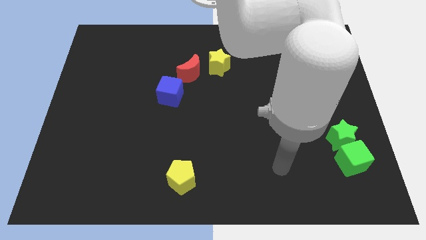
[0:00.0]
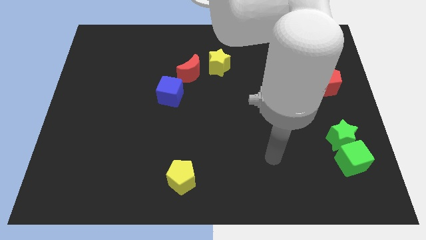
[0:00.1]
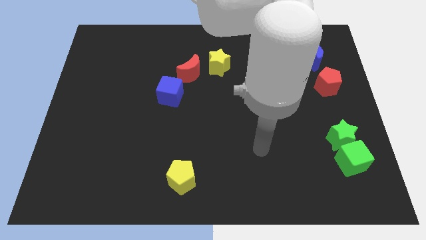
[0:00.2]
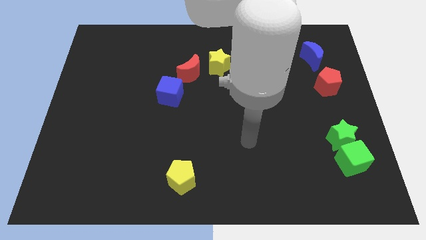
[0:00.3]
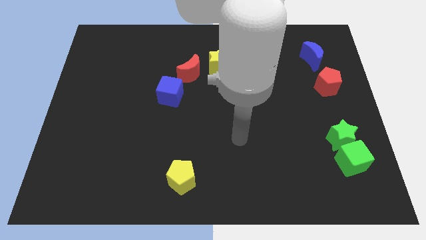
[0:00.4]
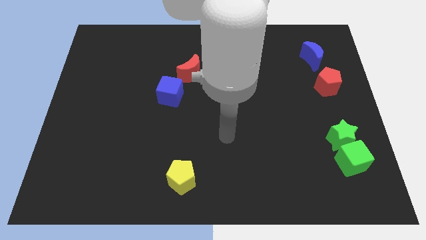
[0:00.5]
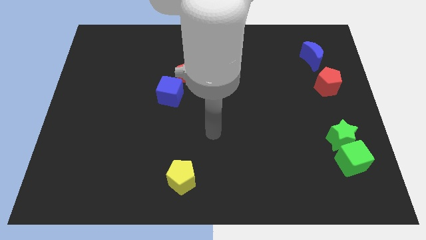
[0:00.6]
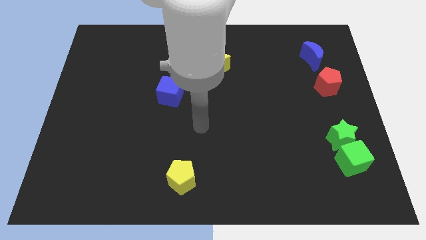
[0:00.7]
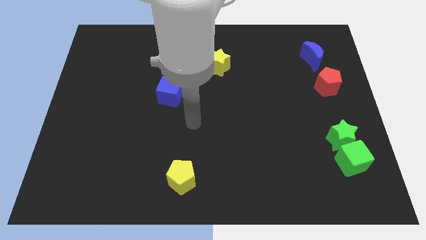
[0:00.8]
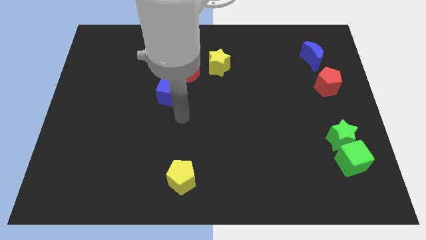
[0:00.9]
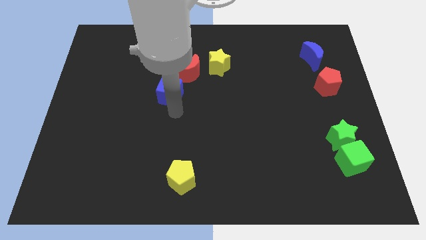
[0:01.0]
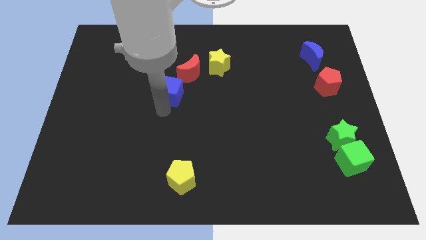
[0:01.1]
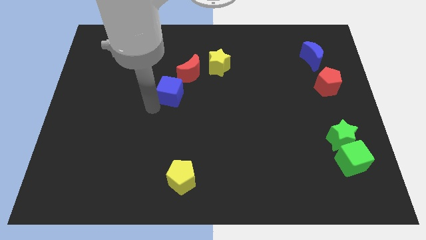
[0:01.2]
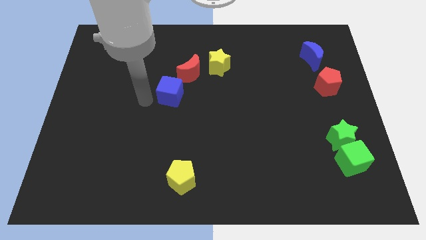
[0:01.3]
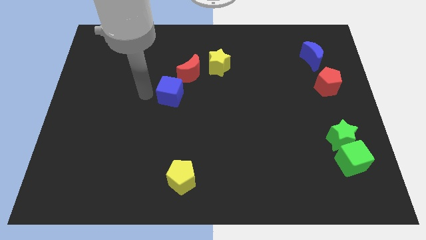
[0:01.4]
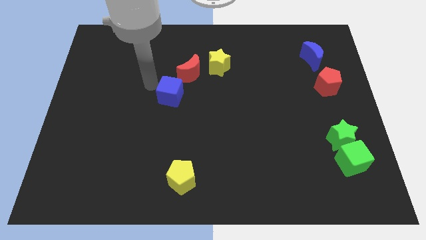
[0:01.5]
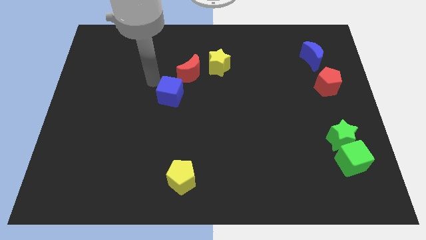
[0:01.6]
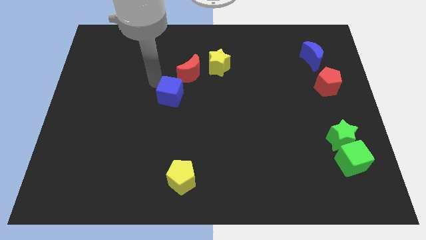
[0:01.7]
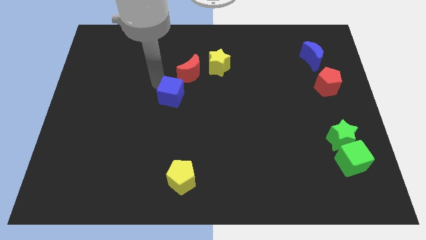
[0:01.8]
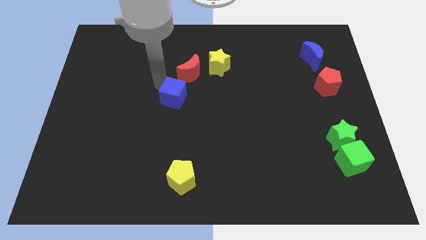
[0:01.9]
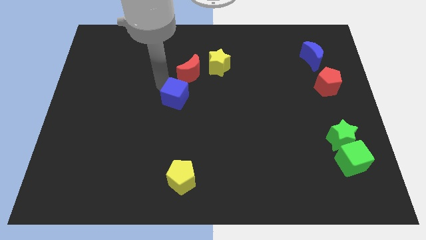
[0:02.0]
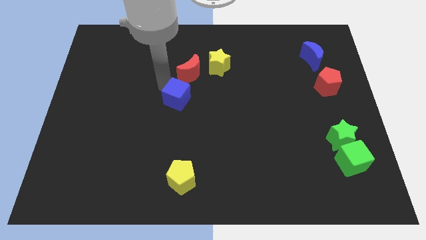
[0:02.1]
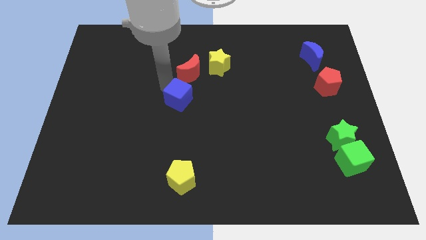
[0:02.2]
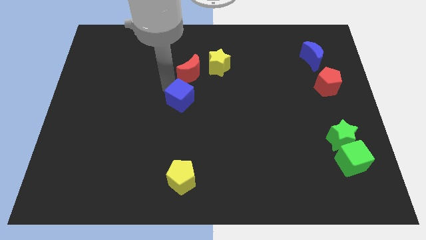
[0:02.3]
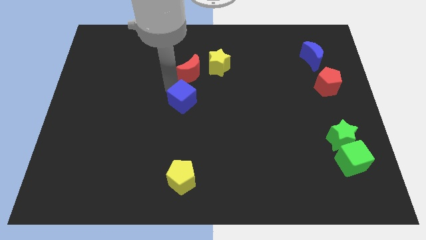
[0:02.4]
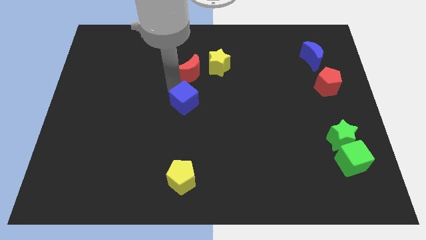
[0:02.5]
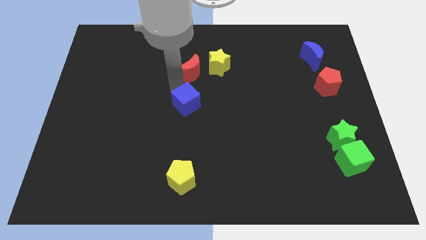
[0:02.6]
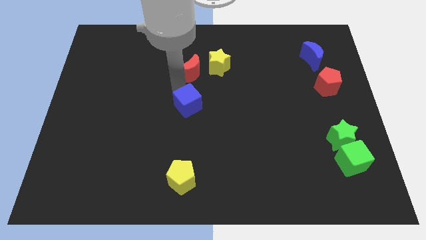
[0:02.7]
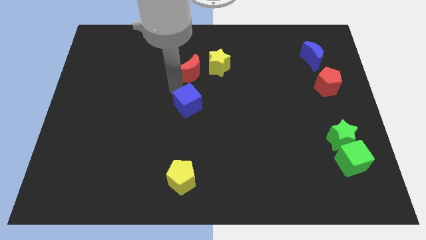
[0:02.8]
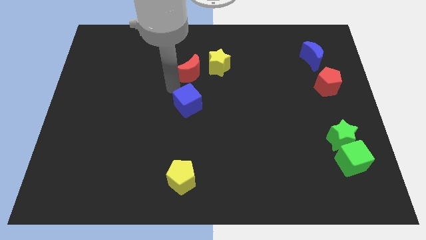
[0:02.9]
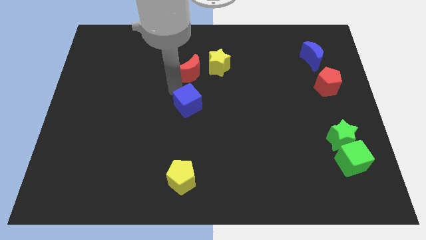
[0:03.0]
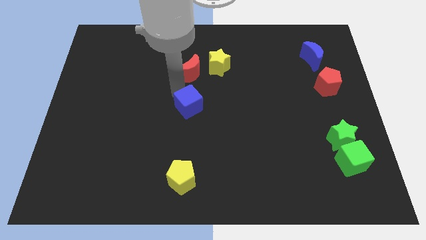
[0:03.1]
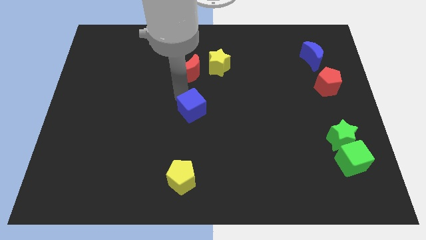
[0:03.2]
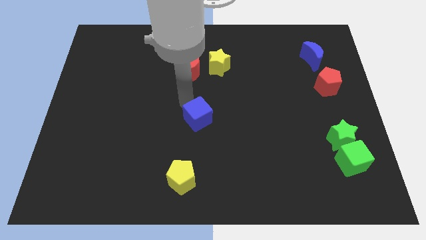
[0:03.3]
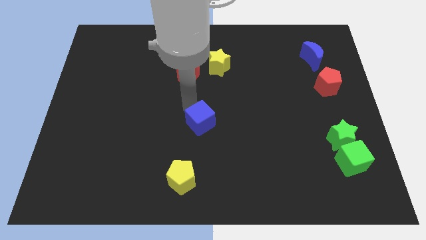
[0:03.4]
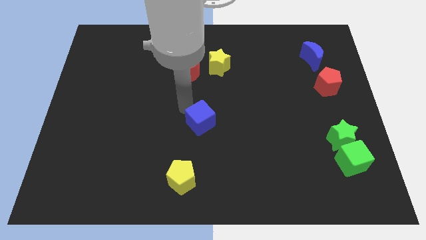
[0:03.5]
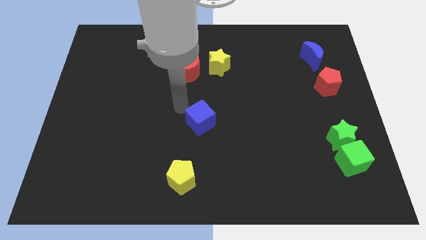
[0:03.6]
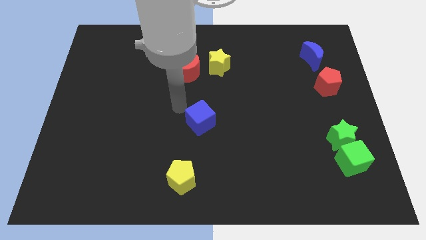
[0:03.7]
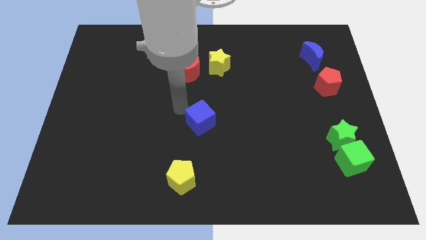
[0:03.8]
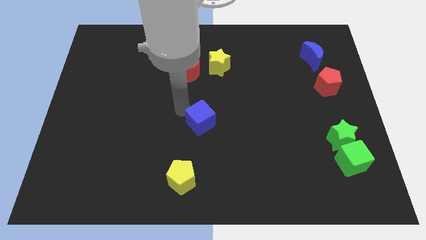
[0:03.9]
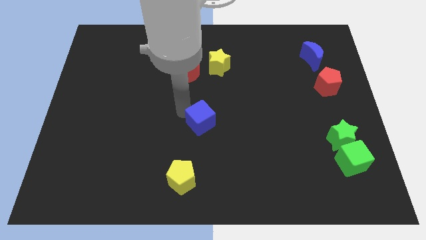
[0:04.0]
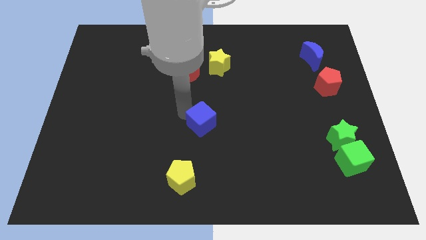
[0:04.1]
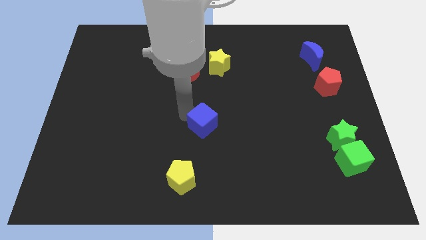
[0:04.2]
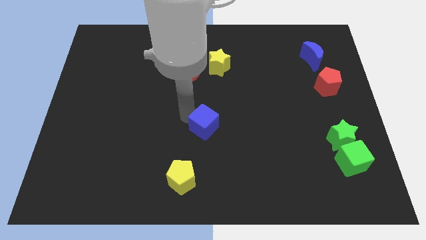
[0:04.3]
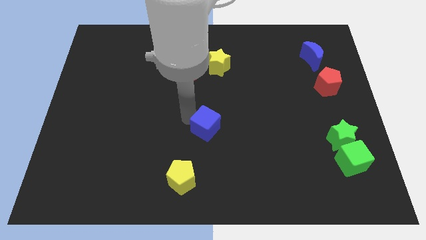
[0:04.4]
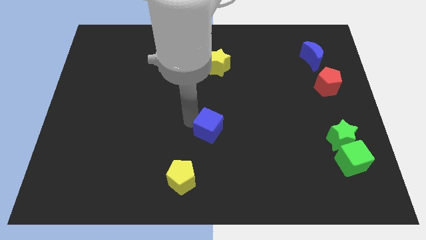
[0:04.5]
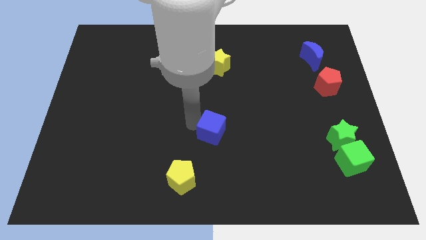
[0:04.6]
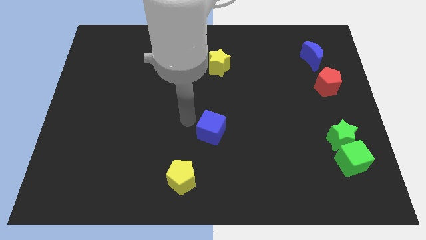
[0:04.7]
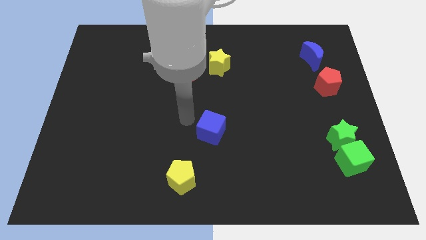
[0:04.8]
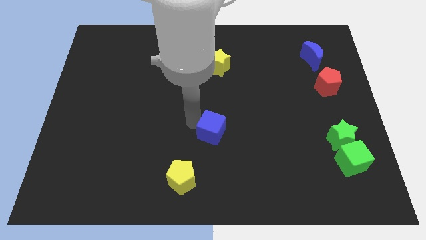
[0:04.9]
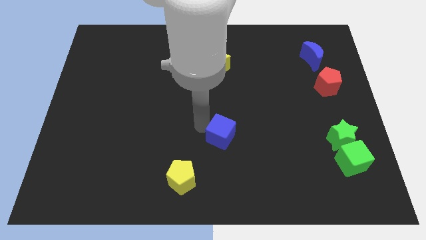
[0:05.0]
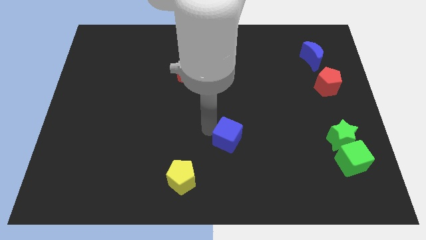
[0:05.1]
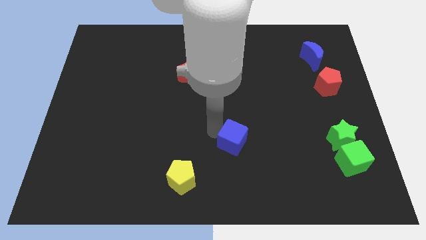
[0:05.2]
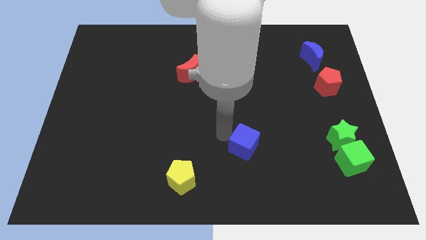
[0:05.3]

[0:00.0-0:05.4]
slide the blue cube downwards and then right

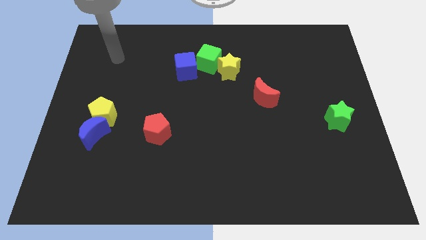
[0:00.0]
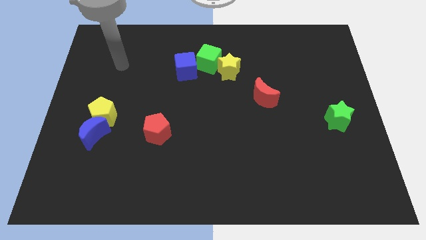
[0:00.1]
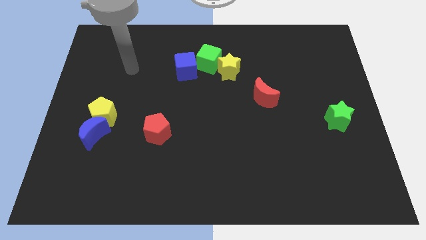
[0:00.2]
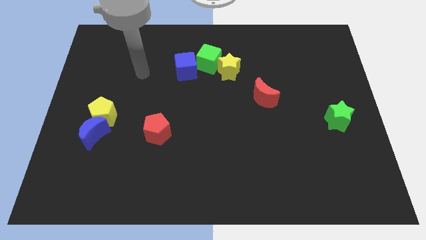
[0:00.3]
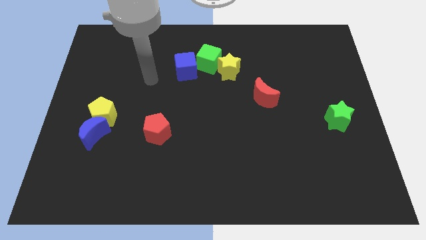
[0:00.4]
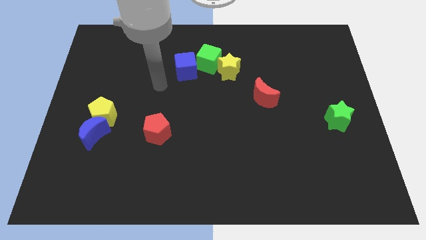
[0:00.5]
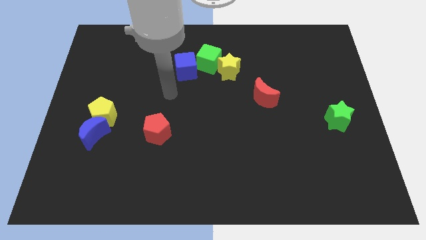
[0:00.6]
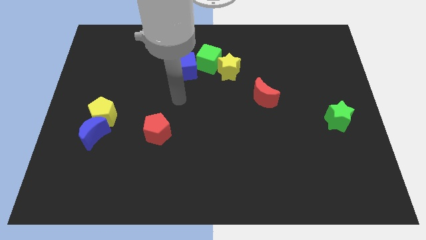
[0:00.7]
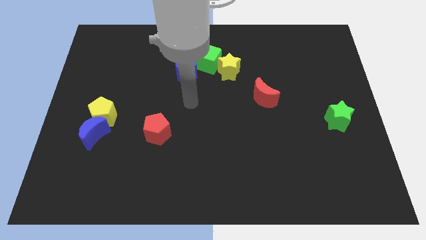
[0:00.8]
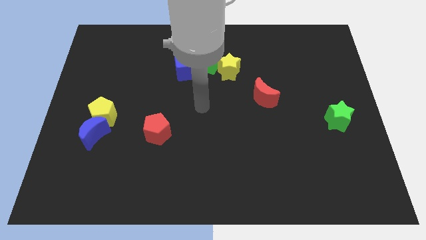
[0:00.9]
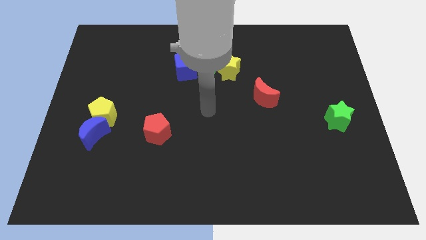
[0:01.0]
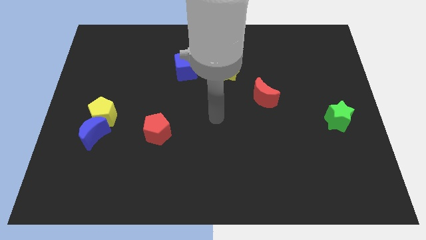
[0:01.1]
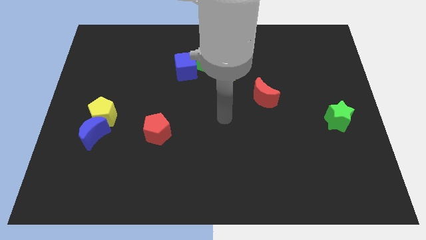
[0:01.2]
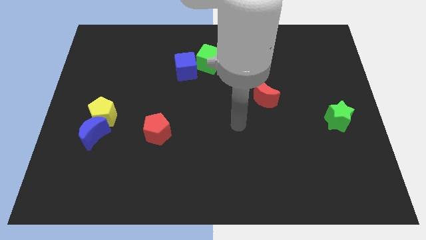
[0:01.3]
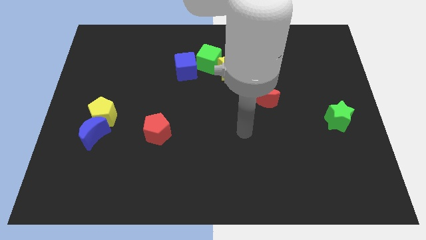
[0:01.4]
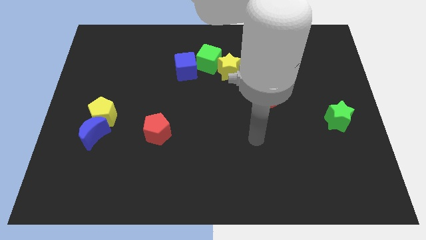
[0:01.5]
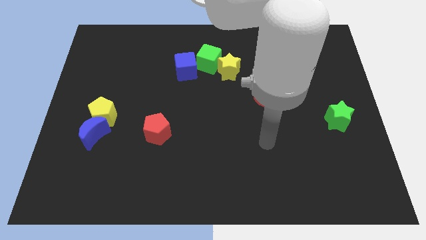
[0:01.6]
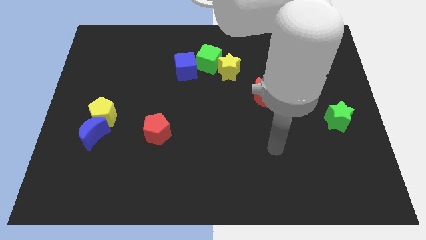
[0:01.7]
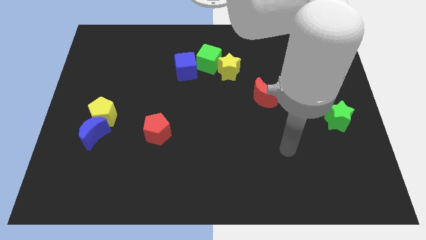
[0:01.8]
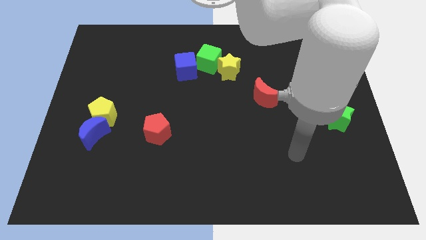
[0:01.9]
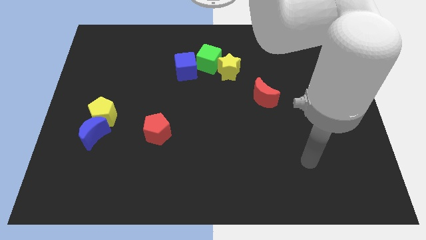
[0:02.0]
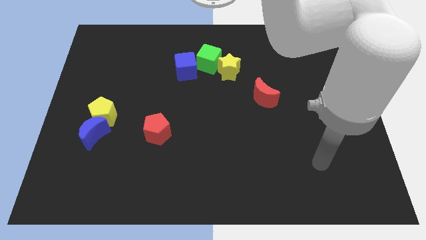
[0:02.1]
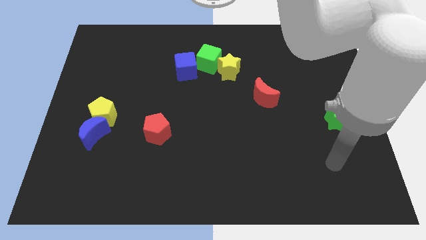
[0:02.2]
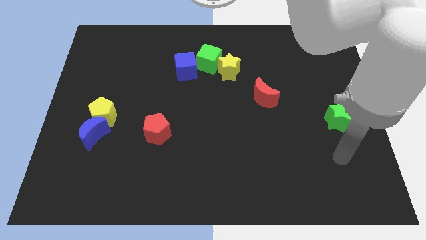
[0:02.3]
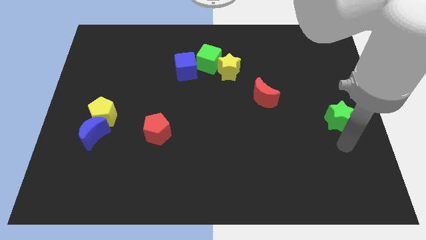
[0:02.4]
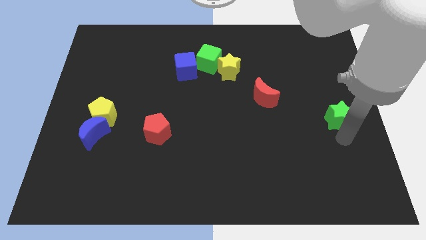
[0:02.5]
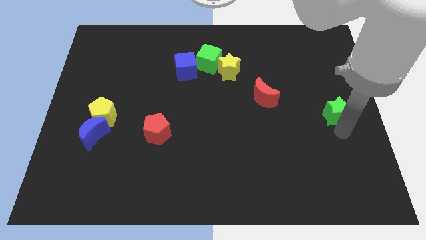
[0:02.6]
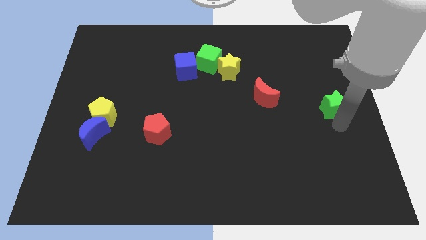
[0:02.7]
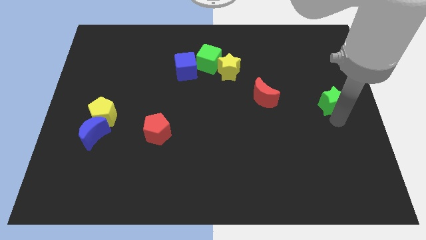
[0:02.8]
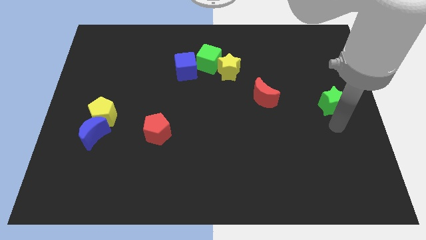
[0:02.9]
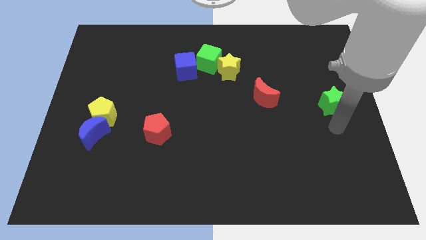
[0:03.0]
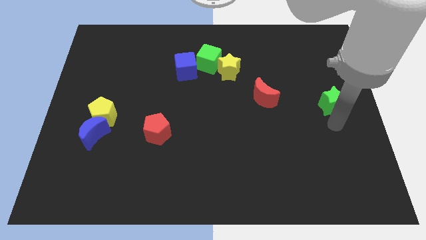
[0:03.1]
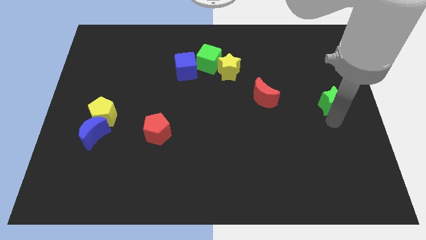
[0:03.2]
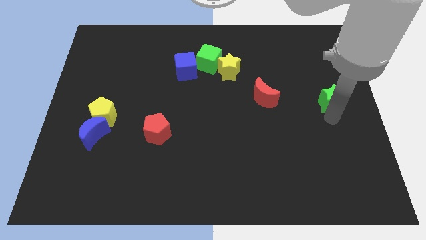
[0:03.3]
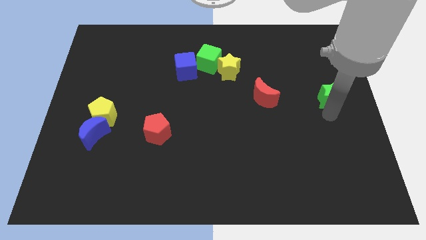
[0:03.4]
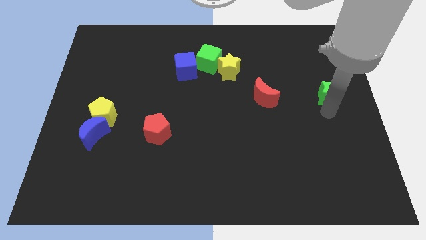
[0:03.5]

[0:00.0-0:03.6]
slightly slide the green star upwards
